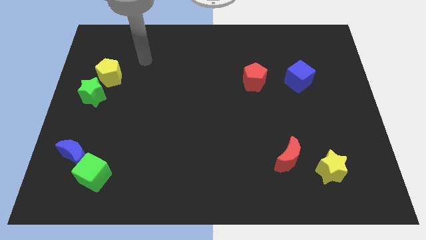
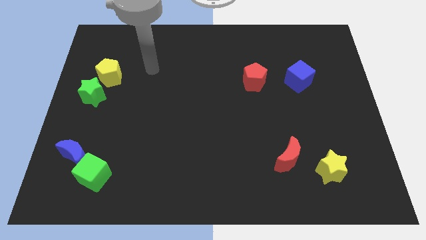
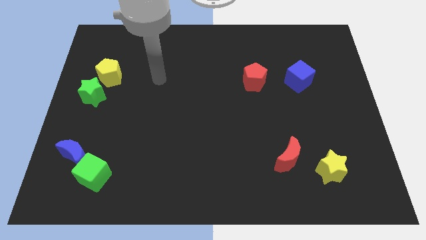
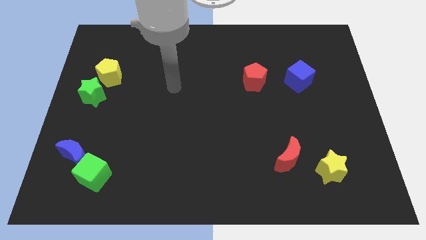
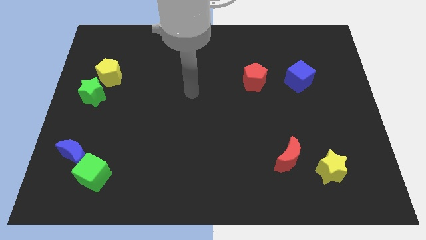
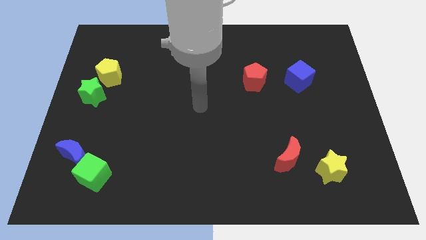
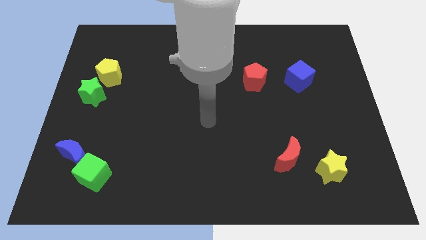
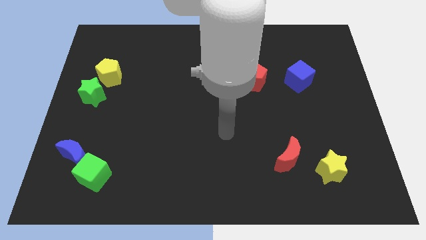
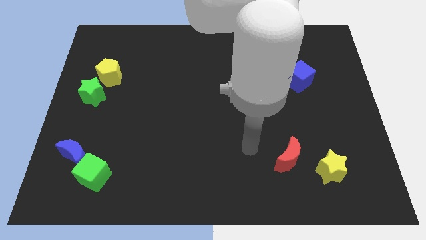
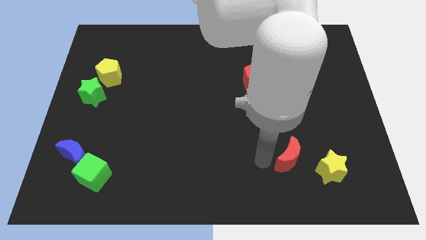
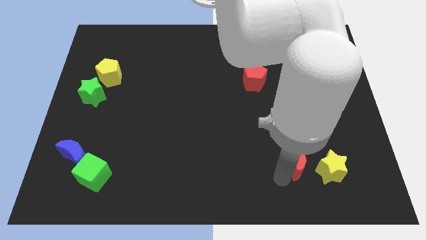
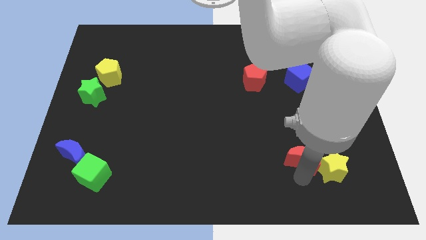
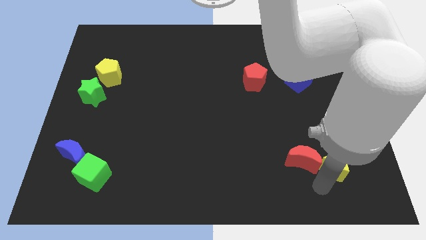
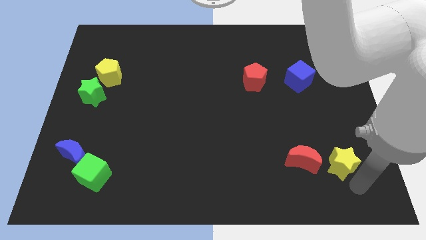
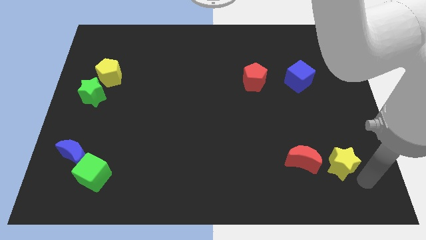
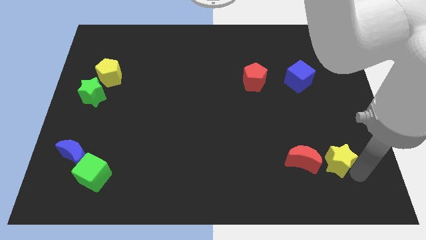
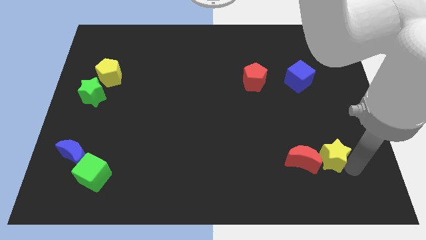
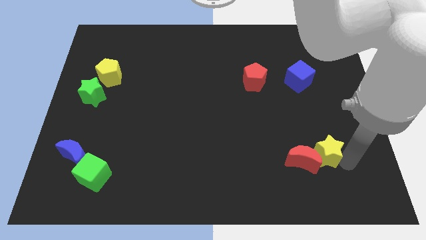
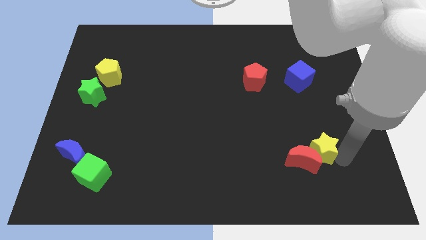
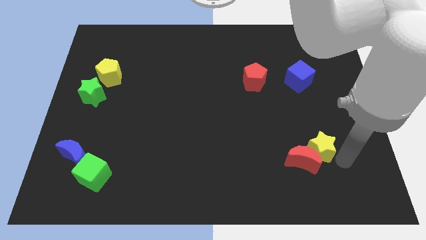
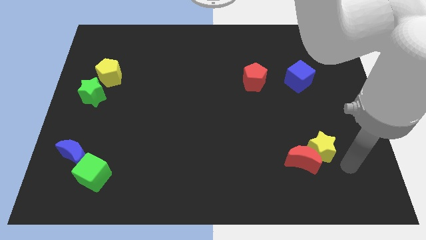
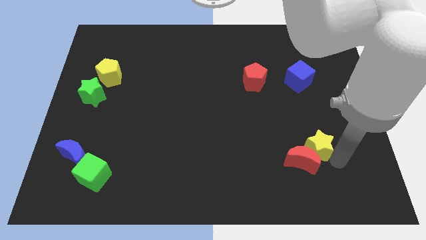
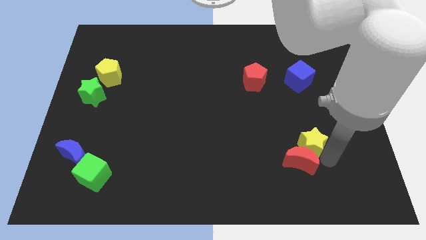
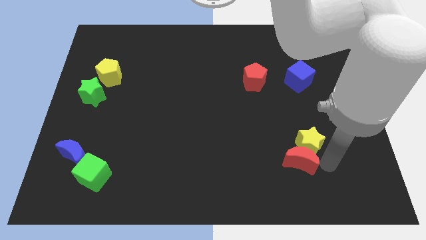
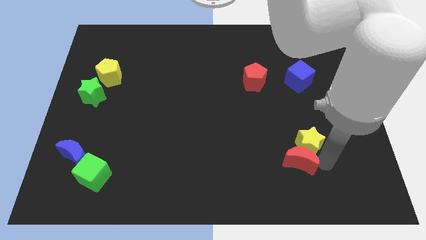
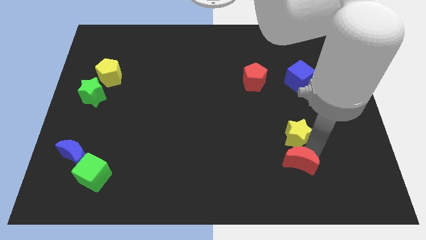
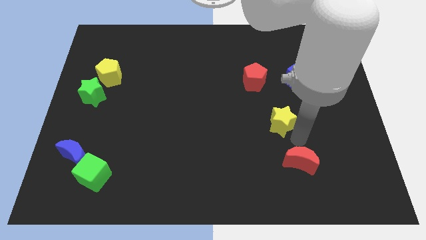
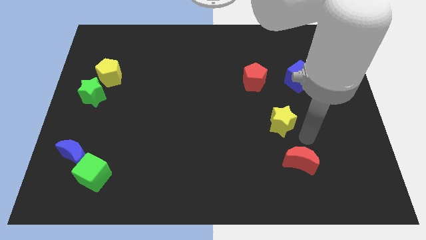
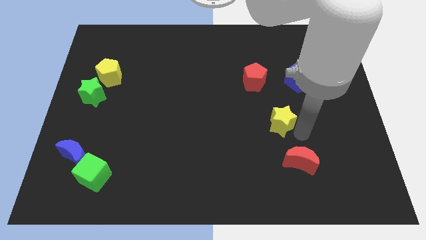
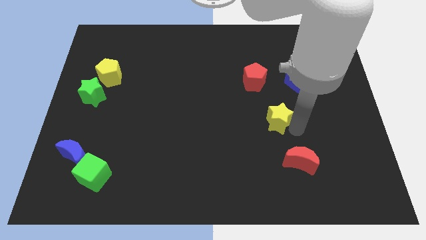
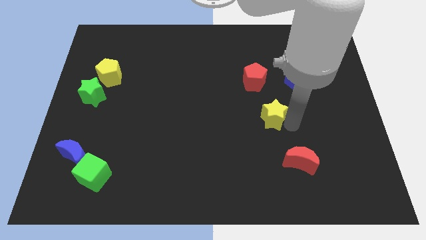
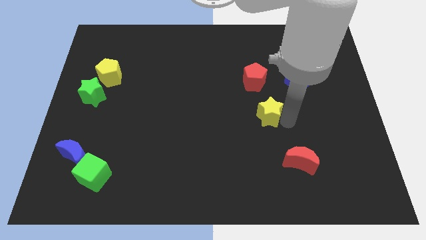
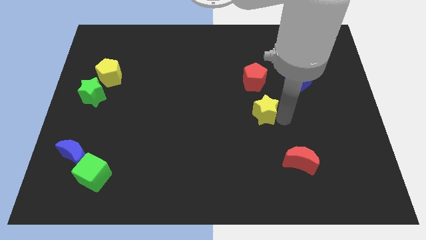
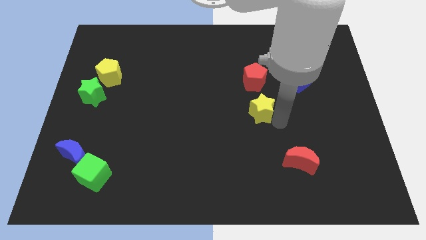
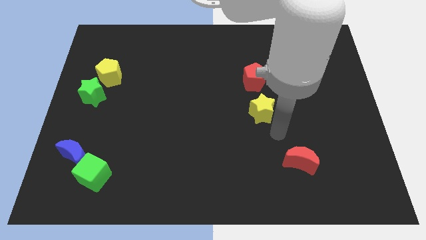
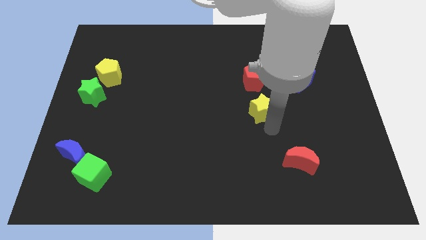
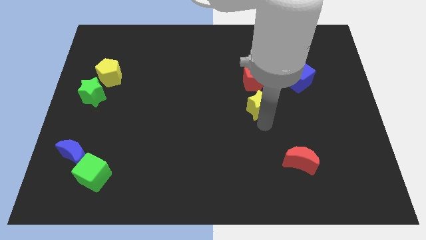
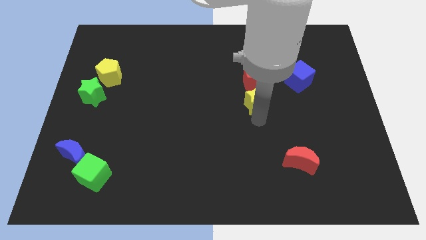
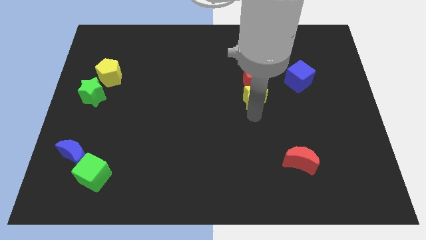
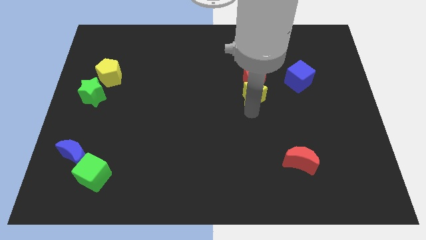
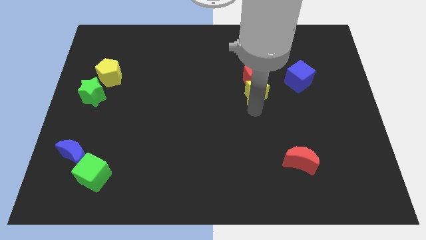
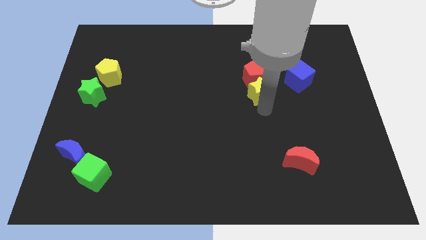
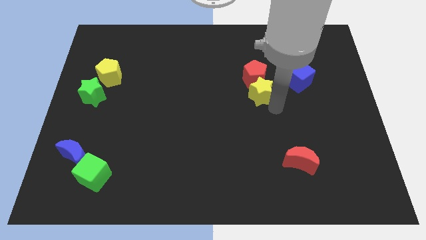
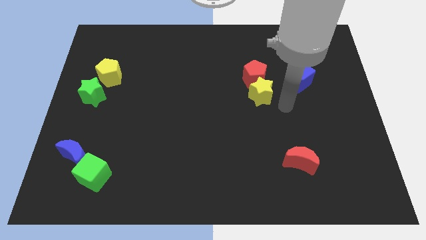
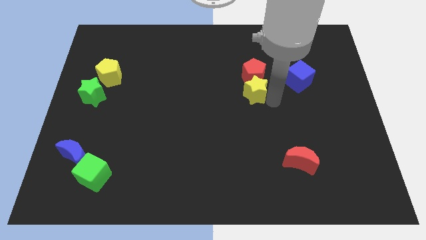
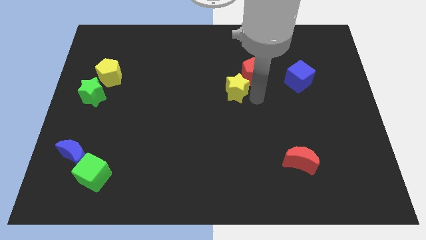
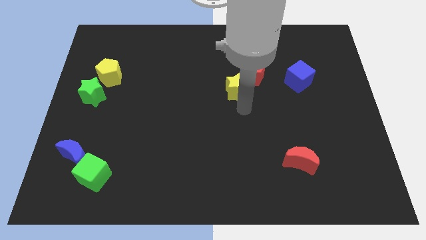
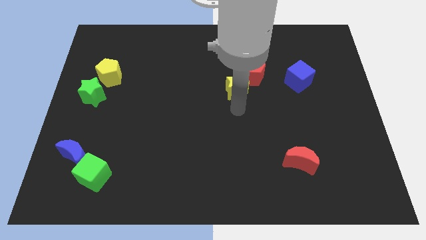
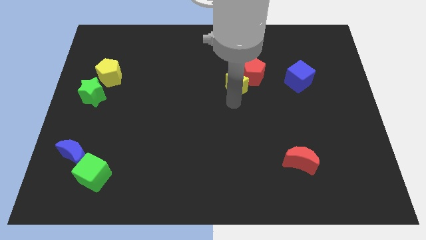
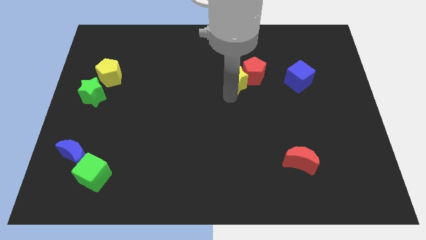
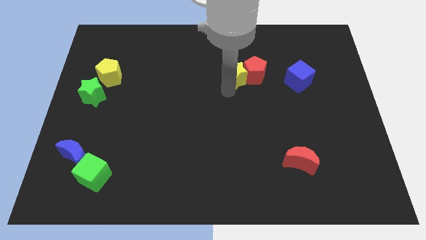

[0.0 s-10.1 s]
push the yellow star to the top left side of the red pentagon

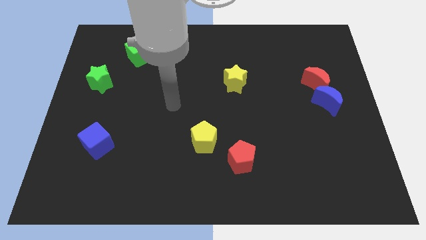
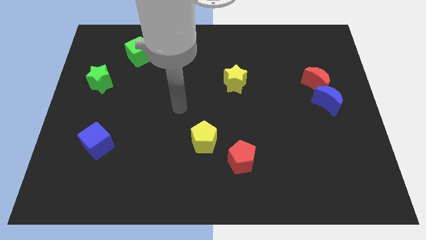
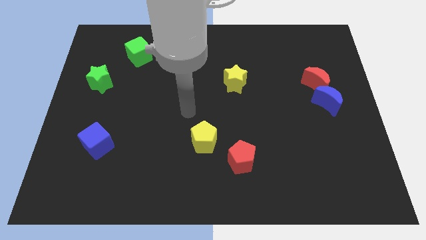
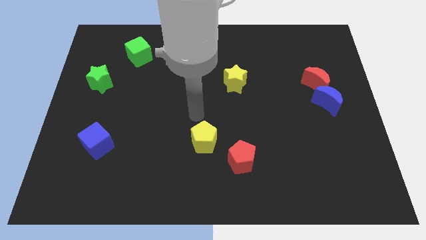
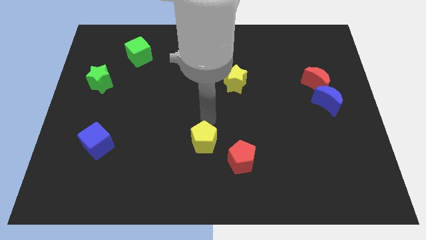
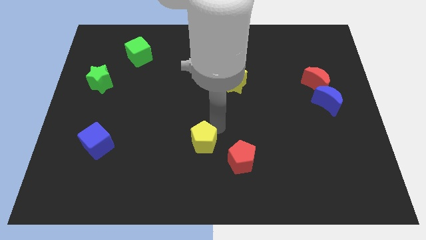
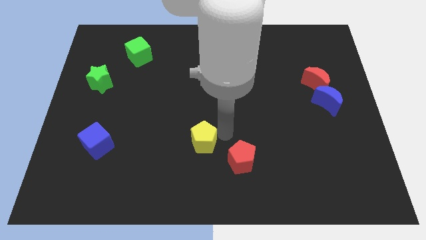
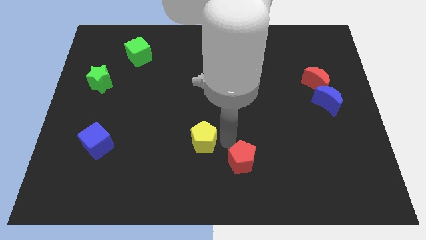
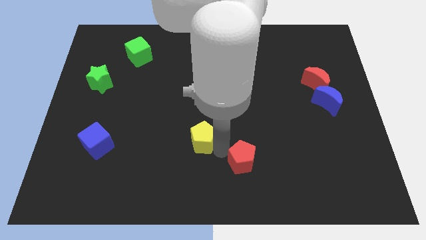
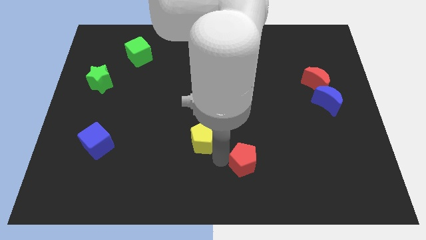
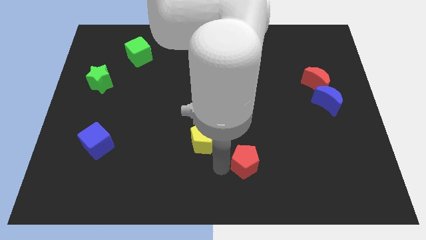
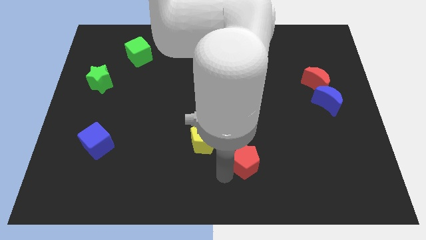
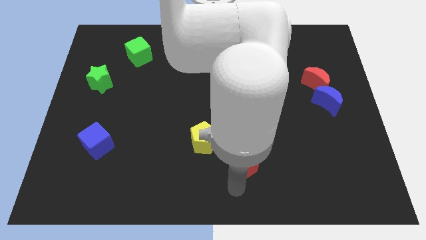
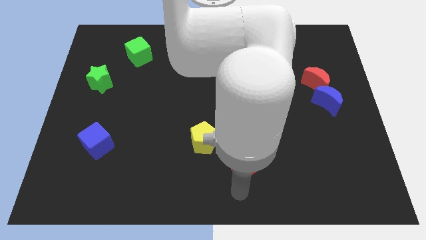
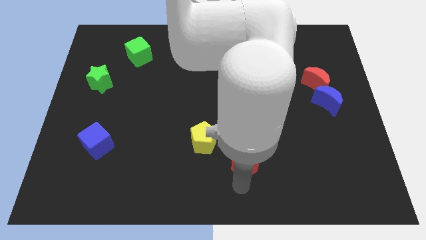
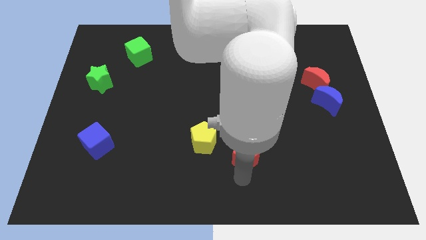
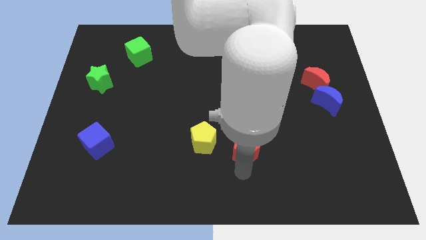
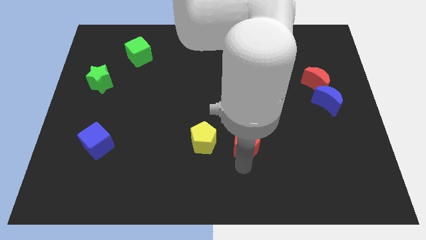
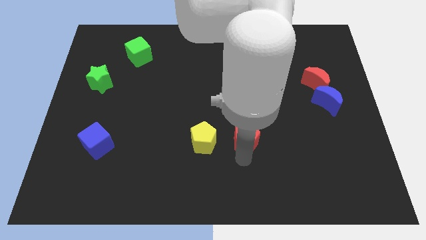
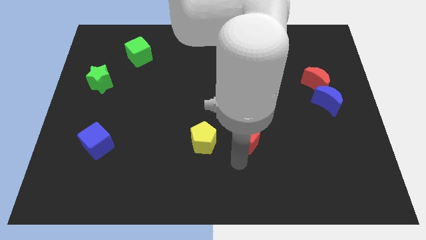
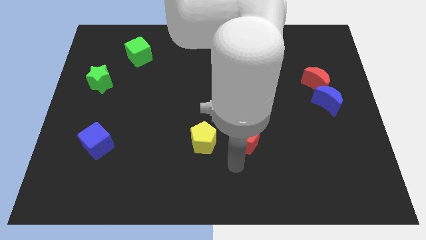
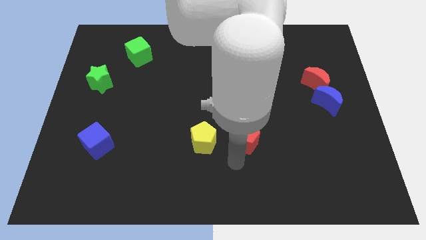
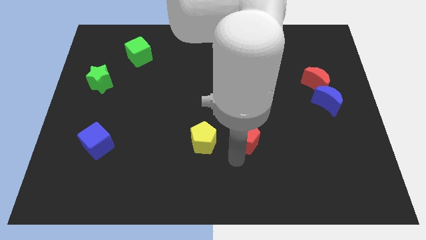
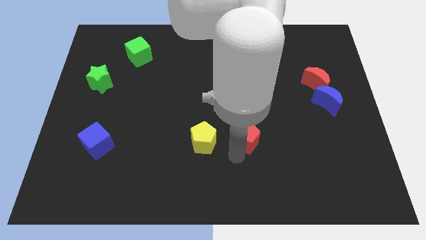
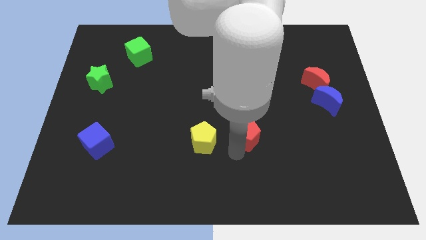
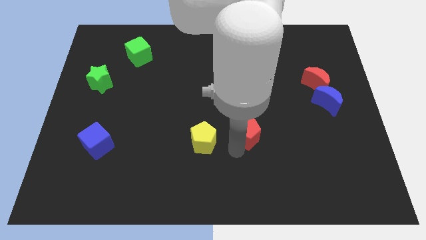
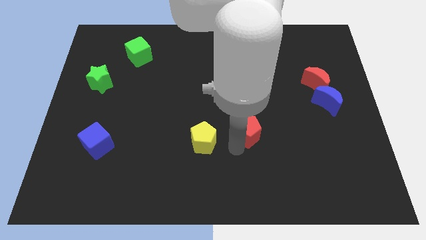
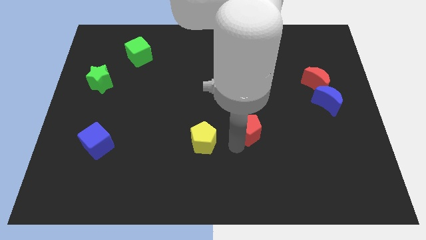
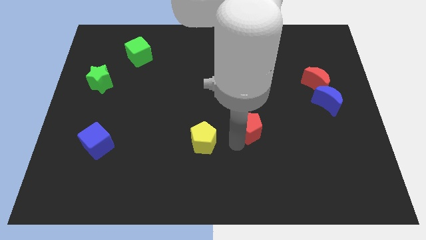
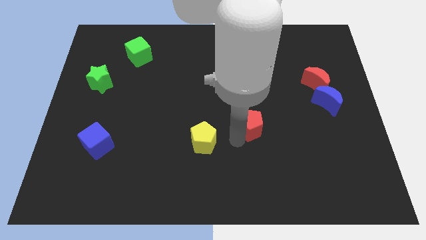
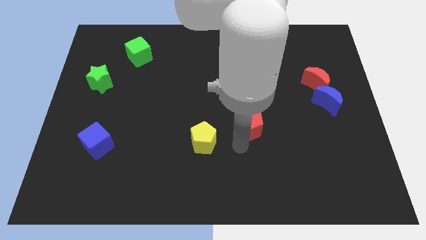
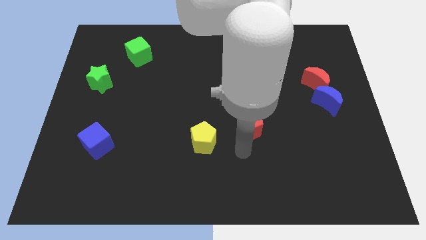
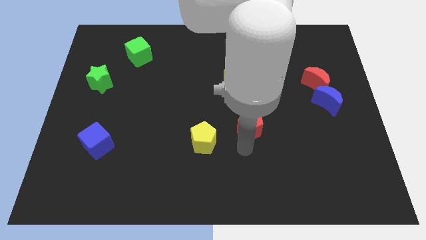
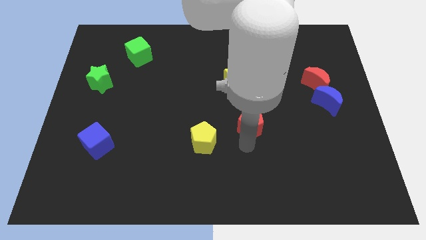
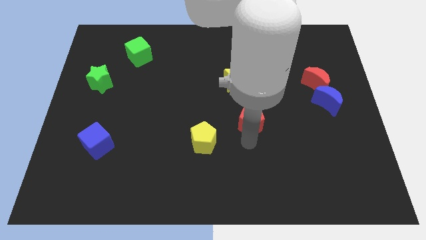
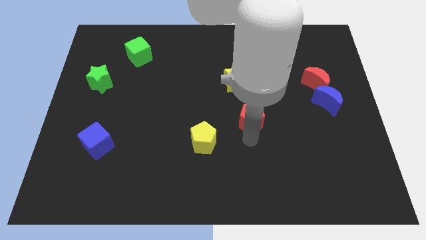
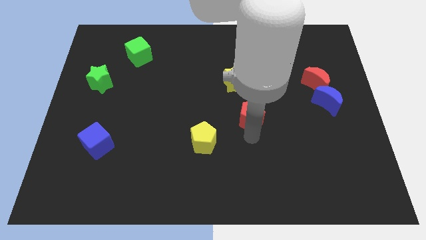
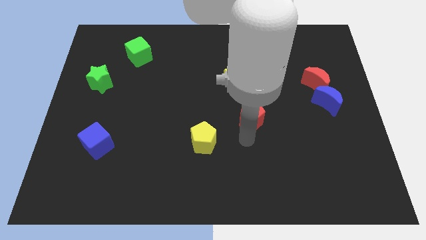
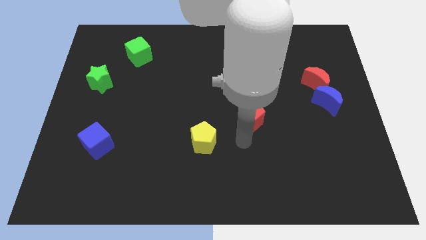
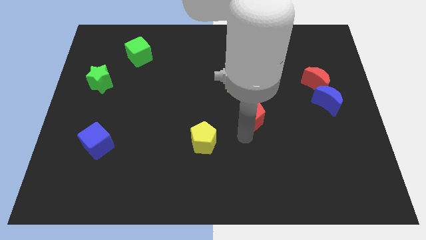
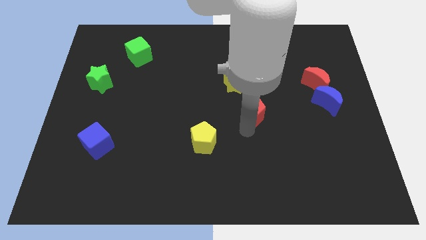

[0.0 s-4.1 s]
put the red pentagon diagonally down and to the right of the yellow star
